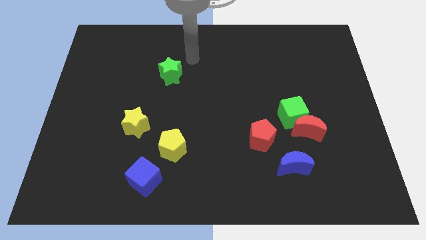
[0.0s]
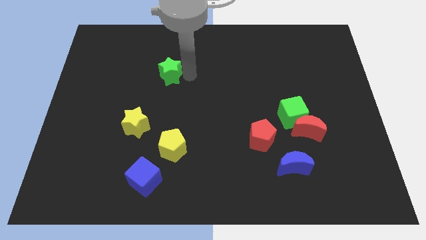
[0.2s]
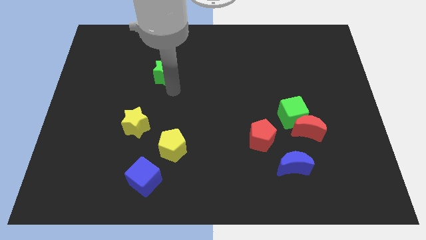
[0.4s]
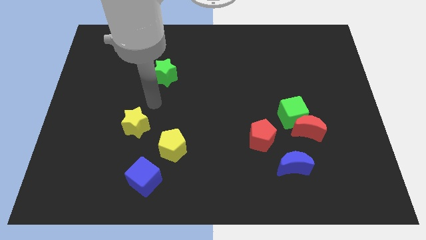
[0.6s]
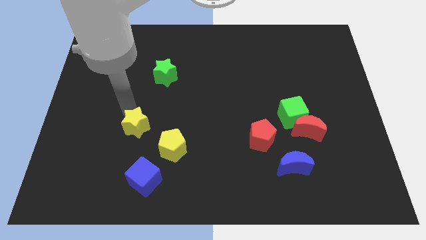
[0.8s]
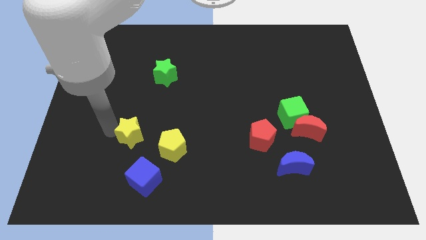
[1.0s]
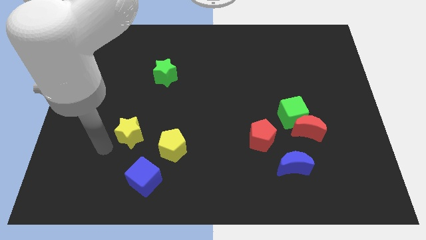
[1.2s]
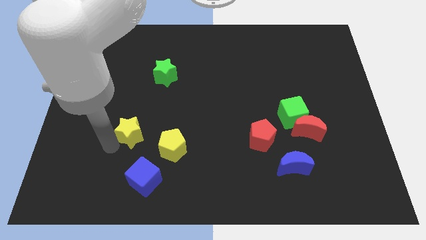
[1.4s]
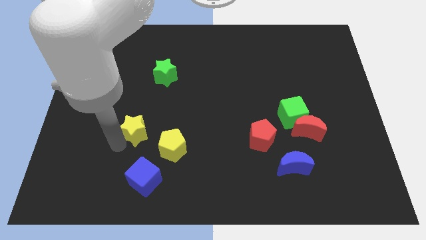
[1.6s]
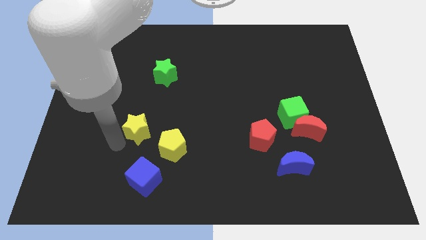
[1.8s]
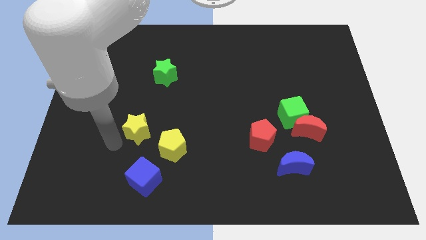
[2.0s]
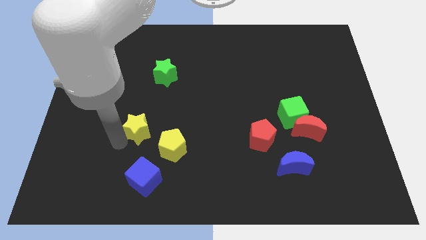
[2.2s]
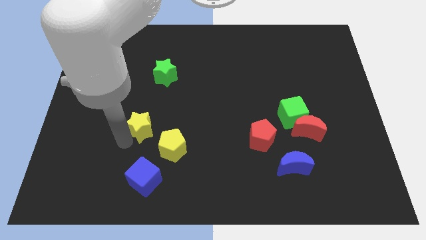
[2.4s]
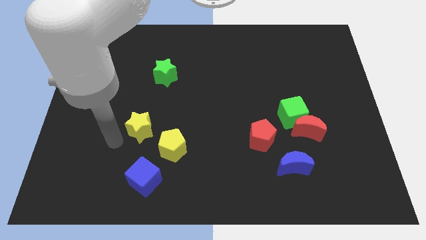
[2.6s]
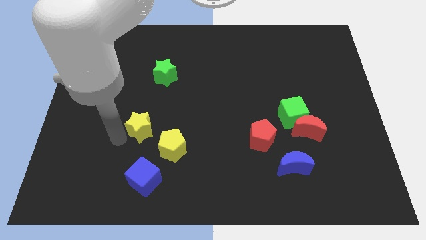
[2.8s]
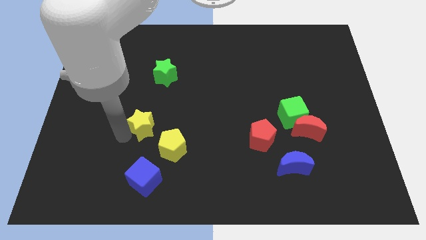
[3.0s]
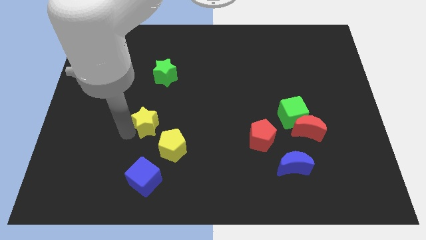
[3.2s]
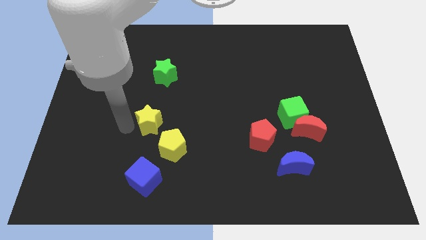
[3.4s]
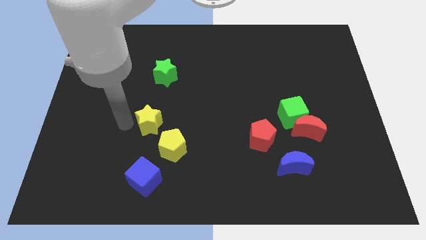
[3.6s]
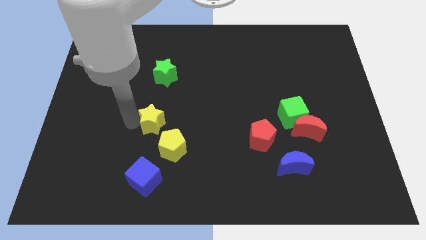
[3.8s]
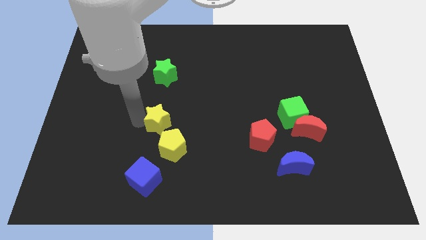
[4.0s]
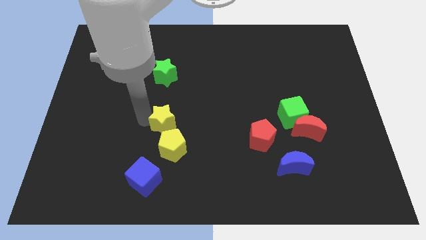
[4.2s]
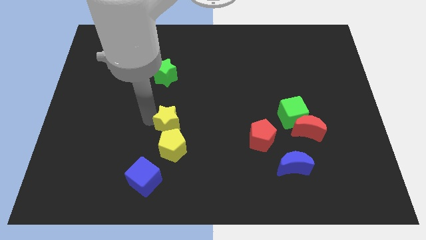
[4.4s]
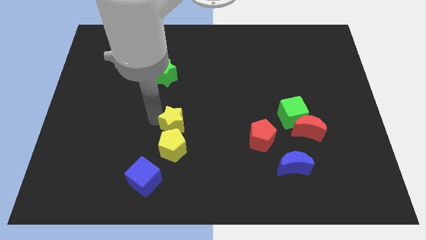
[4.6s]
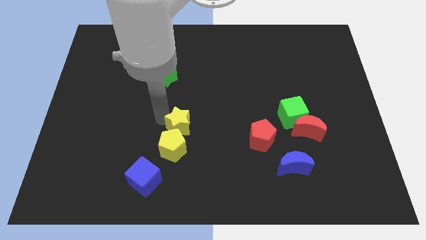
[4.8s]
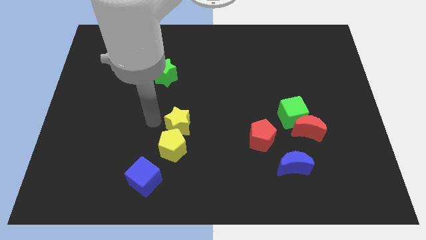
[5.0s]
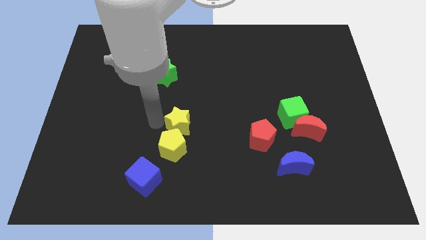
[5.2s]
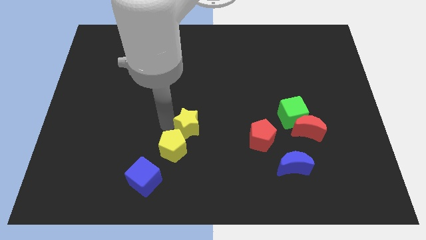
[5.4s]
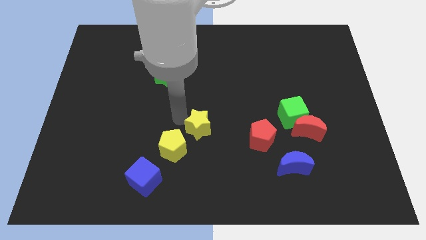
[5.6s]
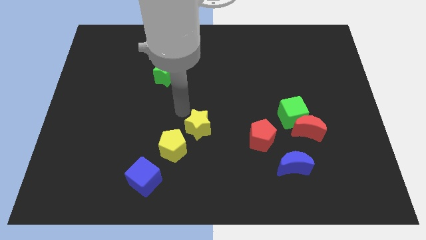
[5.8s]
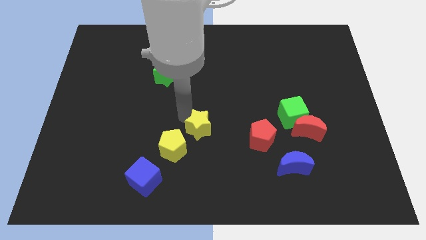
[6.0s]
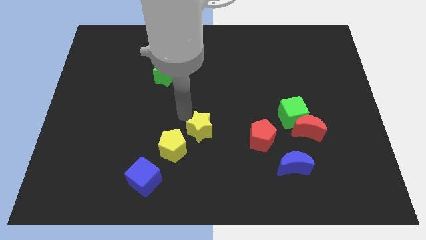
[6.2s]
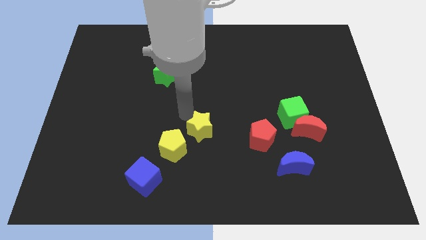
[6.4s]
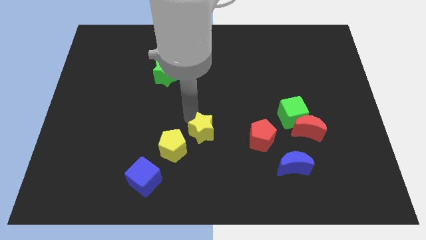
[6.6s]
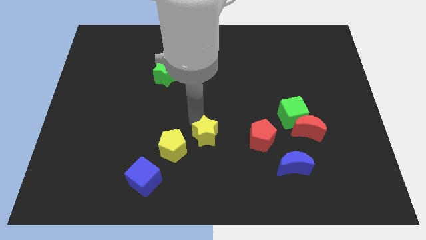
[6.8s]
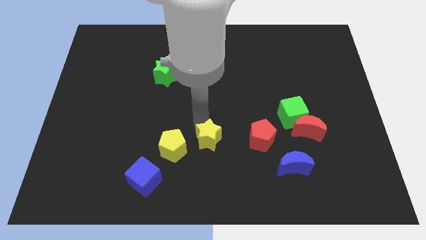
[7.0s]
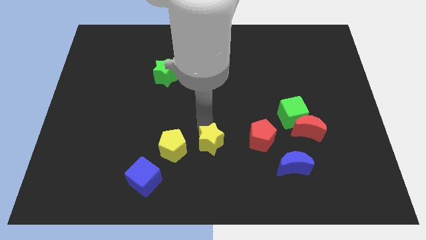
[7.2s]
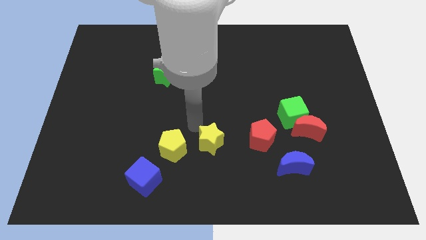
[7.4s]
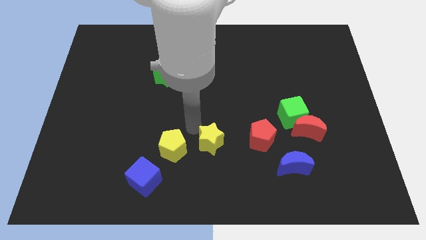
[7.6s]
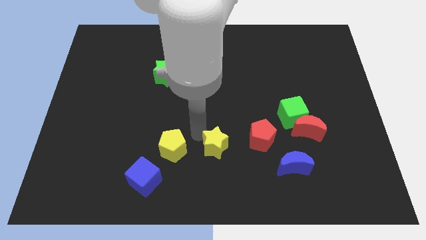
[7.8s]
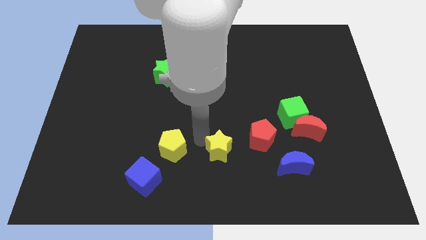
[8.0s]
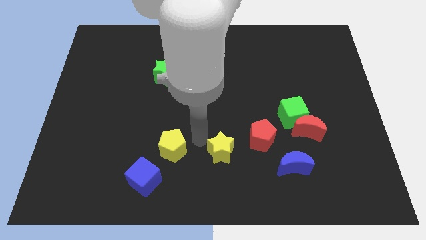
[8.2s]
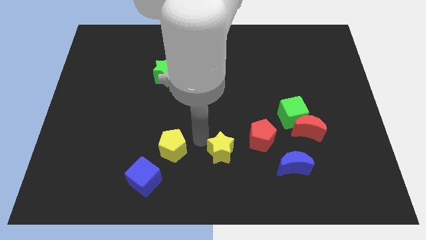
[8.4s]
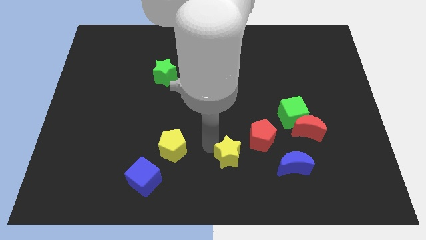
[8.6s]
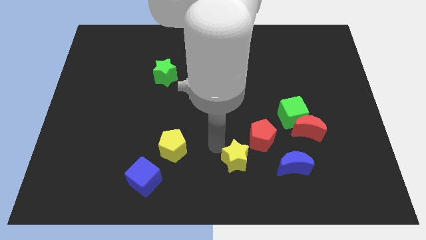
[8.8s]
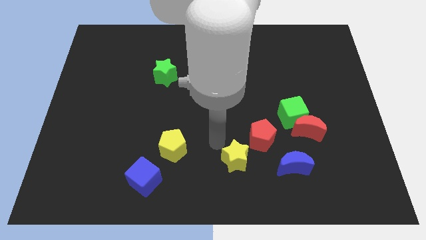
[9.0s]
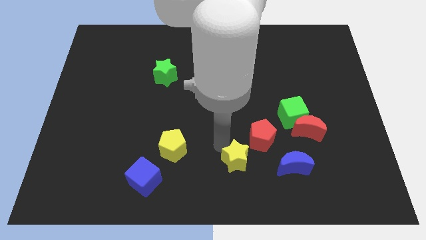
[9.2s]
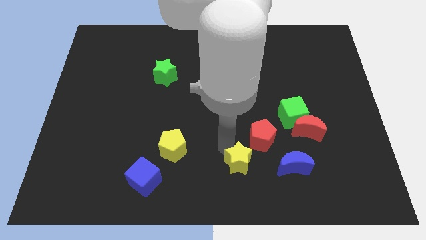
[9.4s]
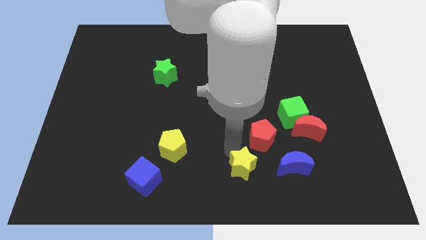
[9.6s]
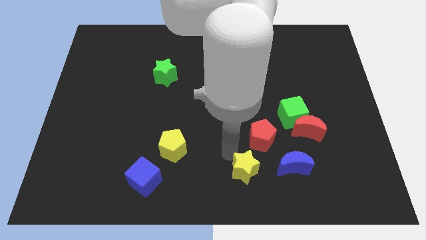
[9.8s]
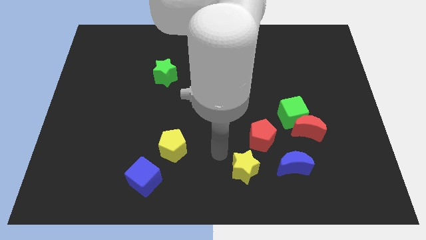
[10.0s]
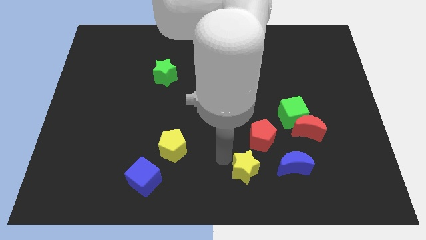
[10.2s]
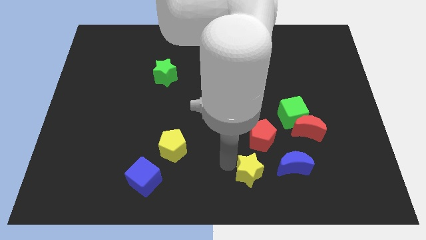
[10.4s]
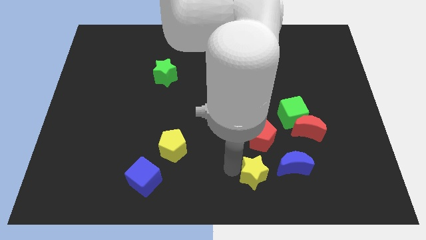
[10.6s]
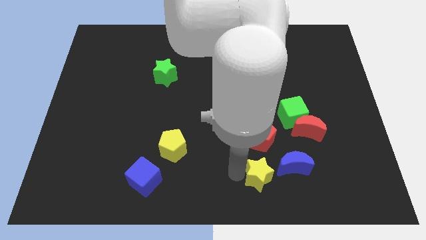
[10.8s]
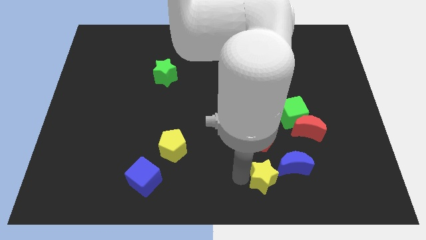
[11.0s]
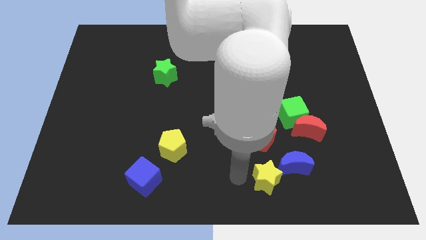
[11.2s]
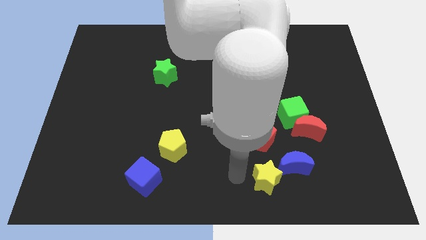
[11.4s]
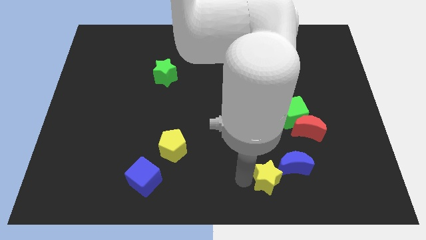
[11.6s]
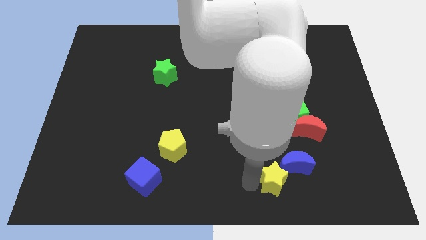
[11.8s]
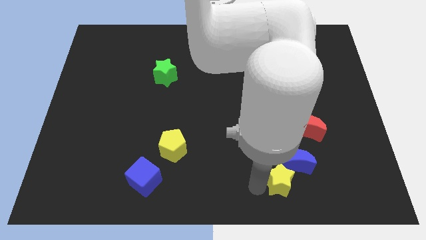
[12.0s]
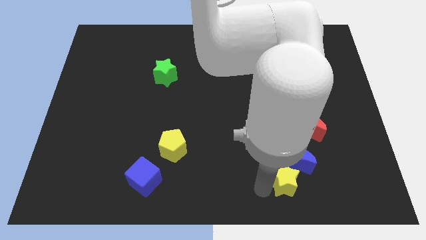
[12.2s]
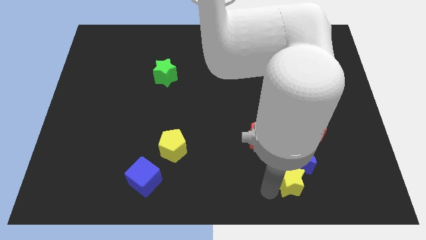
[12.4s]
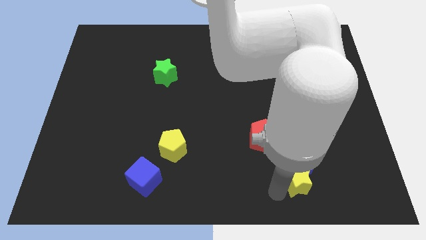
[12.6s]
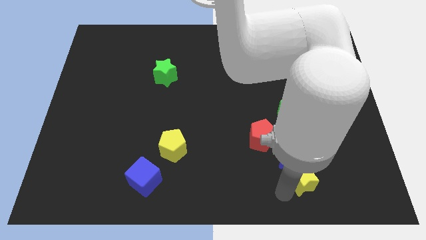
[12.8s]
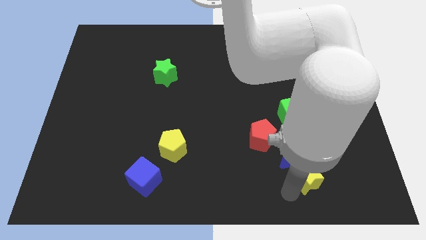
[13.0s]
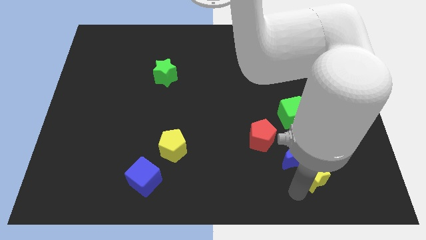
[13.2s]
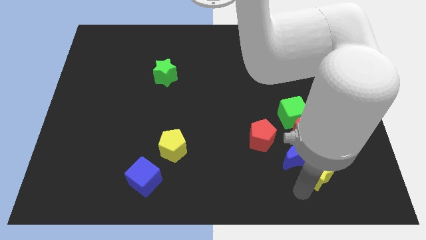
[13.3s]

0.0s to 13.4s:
move the yellow star to the right side of the blue moon

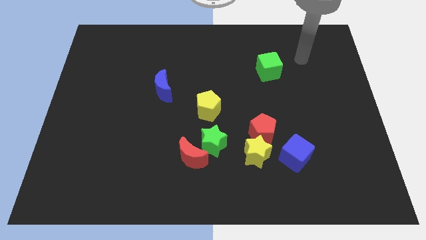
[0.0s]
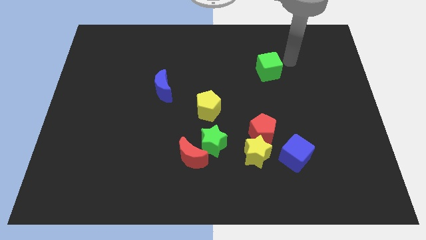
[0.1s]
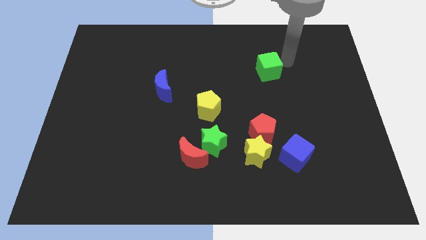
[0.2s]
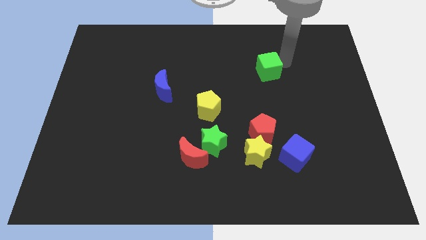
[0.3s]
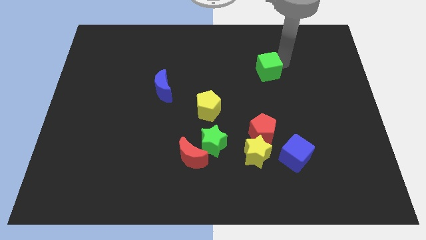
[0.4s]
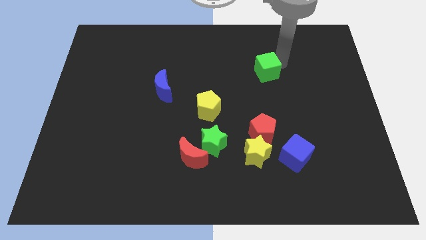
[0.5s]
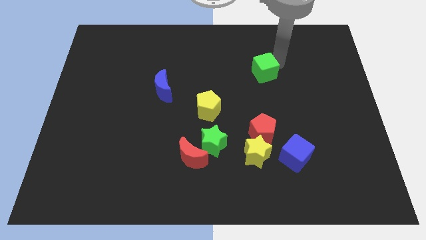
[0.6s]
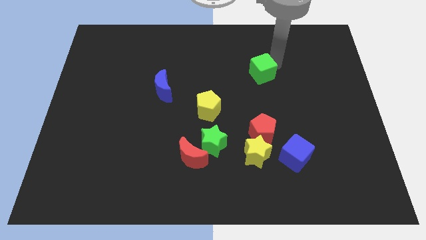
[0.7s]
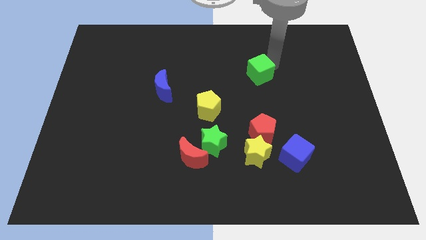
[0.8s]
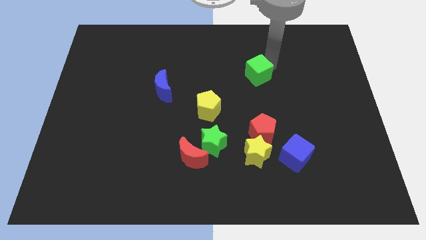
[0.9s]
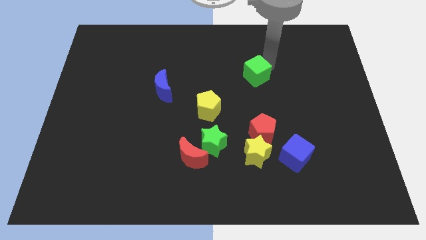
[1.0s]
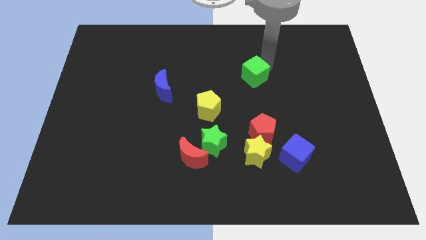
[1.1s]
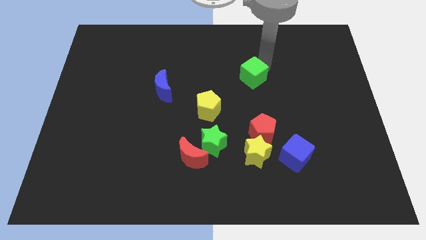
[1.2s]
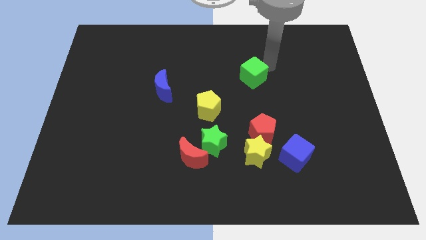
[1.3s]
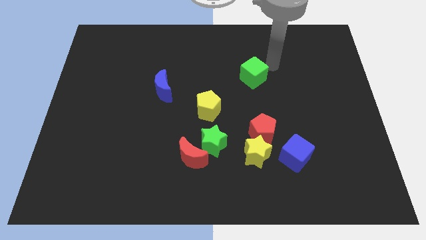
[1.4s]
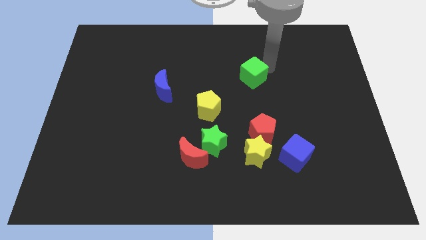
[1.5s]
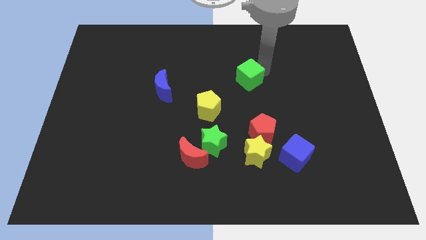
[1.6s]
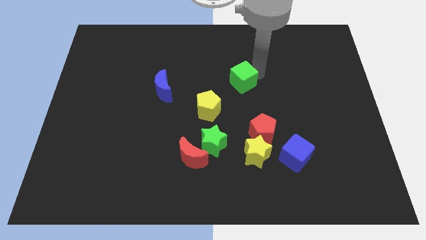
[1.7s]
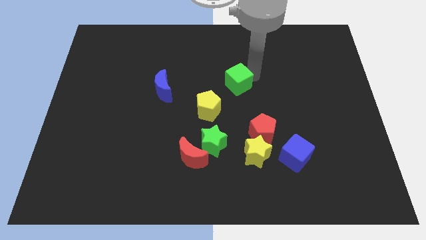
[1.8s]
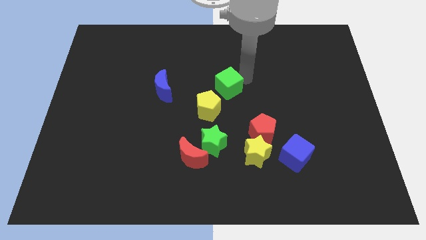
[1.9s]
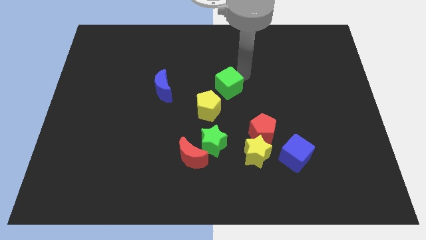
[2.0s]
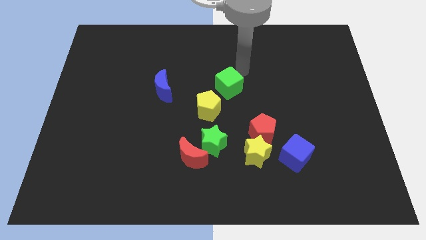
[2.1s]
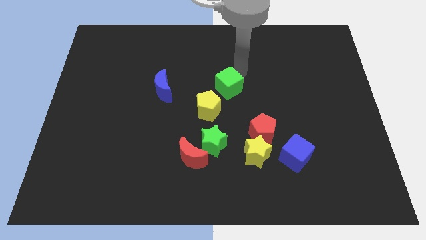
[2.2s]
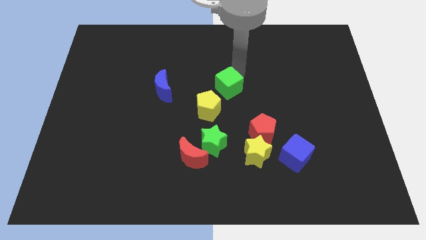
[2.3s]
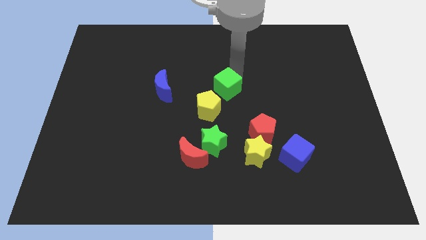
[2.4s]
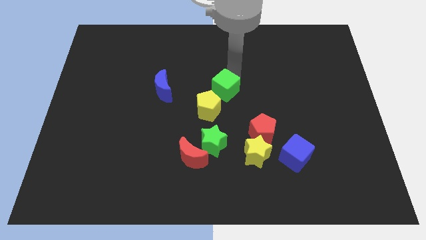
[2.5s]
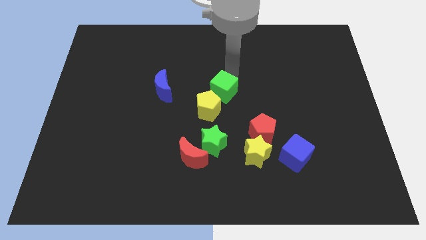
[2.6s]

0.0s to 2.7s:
move the green cube to the top of the green star
